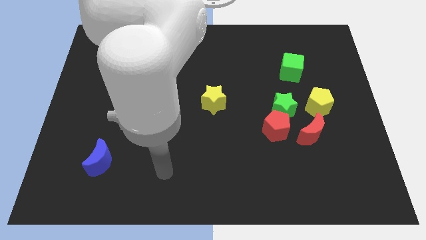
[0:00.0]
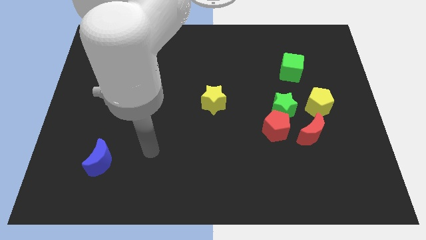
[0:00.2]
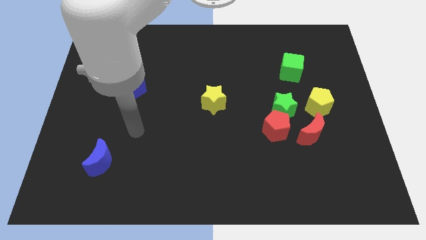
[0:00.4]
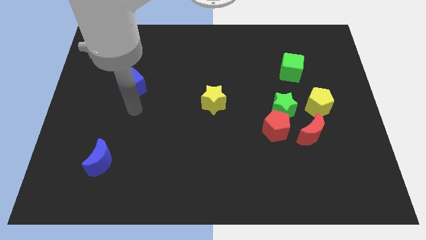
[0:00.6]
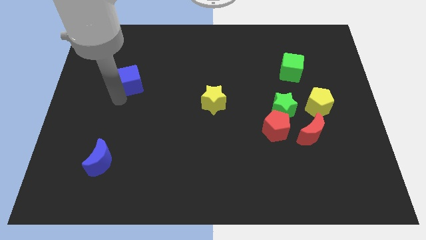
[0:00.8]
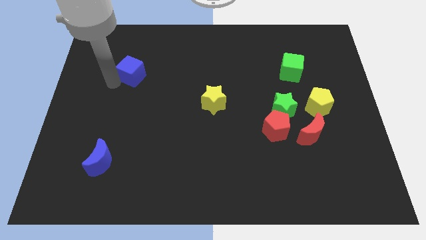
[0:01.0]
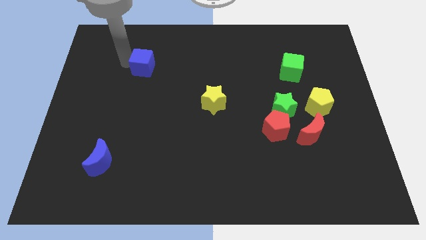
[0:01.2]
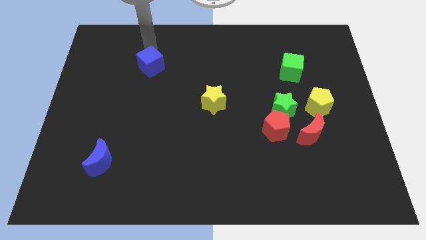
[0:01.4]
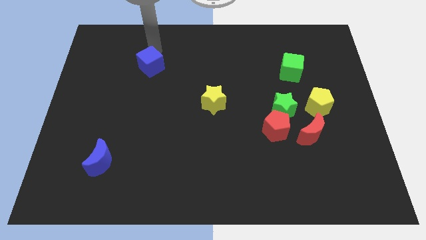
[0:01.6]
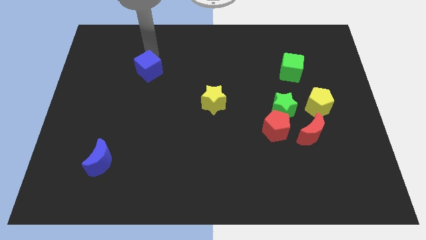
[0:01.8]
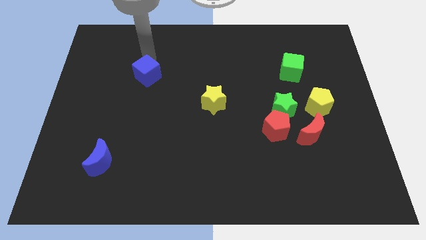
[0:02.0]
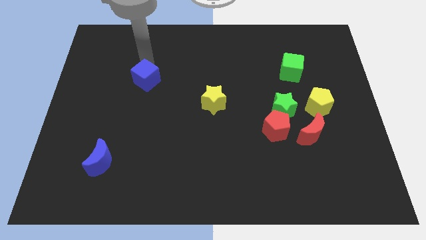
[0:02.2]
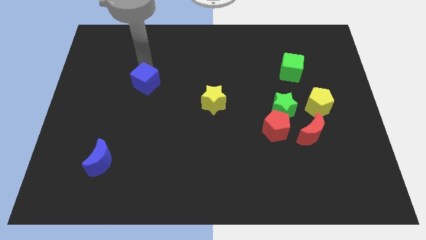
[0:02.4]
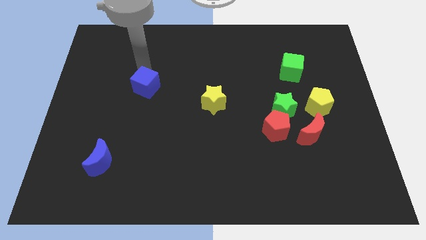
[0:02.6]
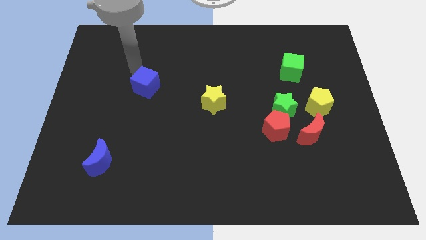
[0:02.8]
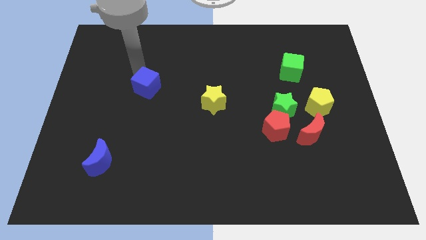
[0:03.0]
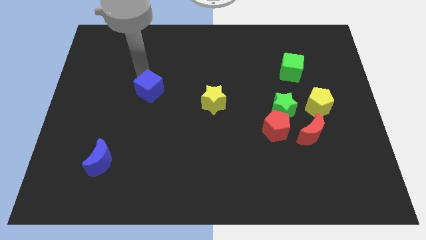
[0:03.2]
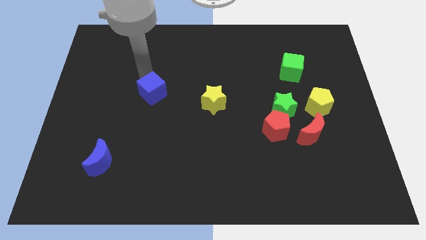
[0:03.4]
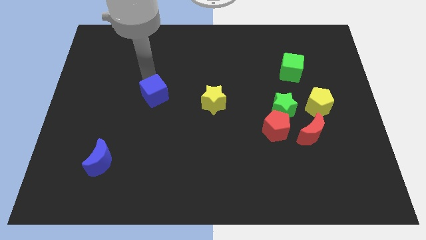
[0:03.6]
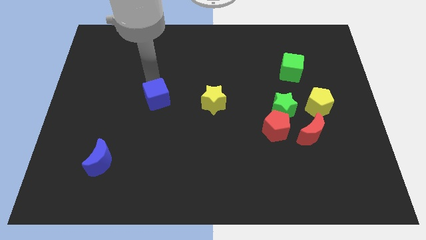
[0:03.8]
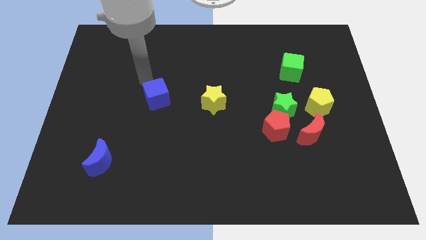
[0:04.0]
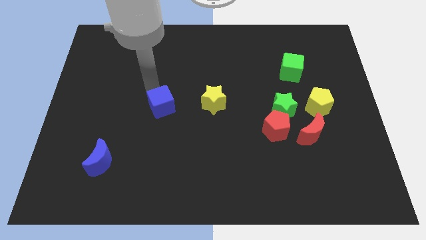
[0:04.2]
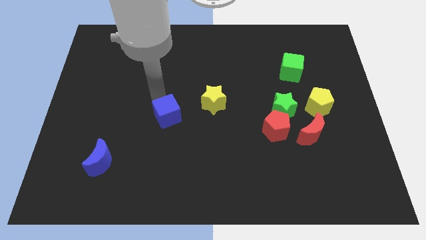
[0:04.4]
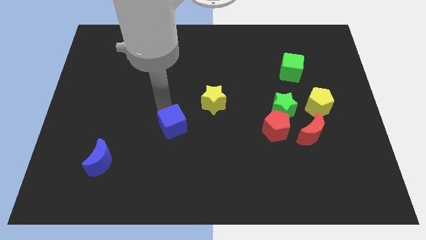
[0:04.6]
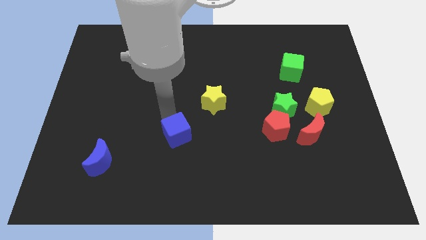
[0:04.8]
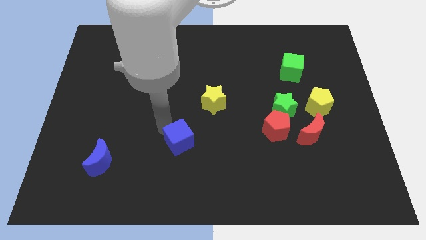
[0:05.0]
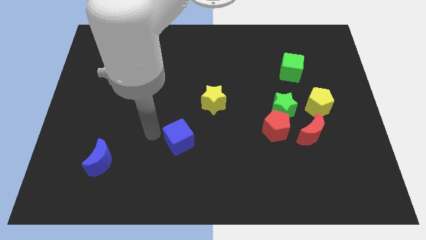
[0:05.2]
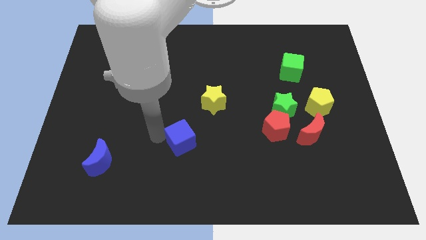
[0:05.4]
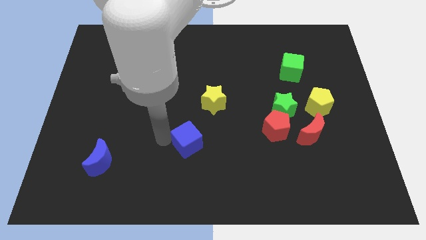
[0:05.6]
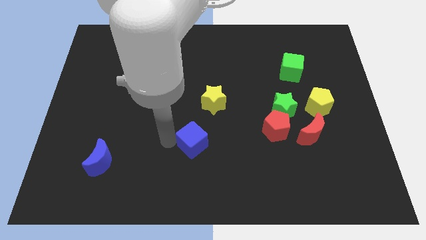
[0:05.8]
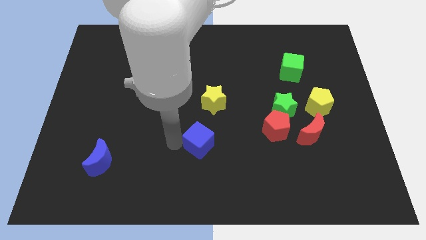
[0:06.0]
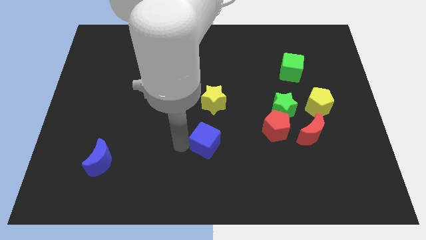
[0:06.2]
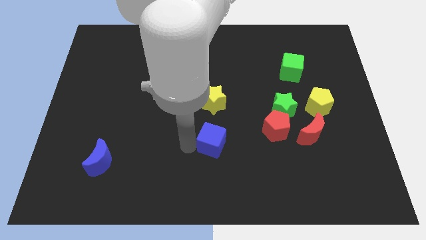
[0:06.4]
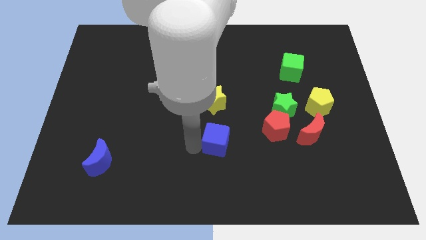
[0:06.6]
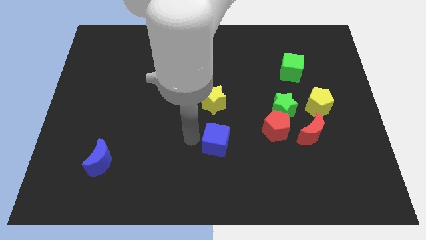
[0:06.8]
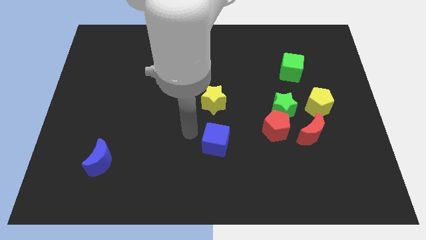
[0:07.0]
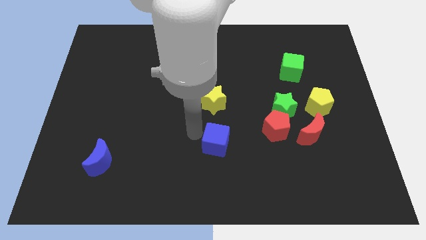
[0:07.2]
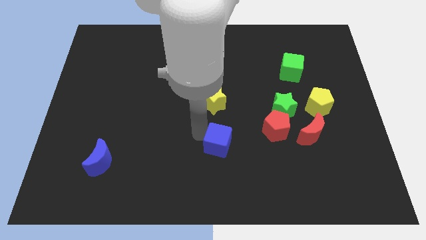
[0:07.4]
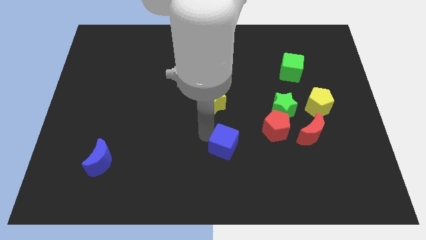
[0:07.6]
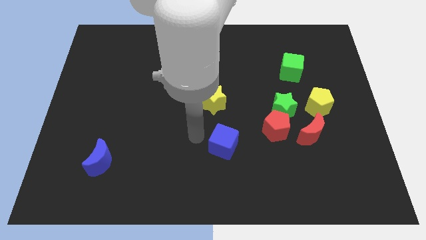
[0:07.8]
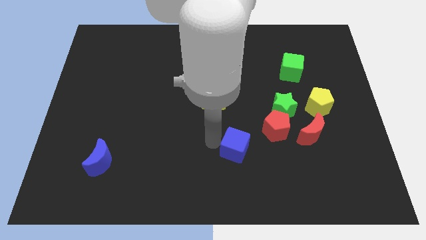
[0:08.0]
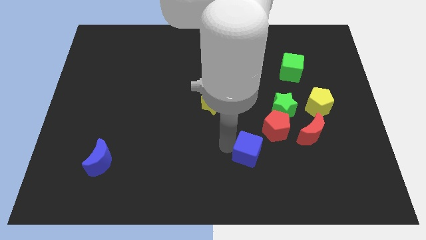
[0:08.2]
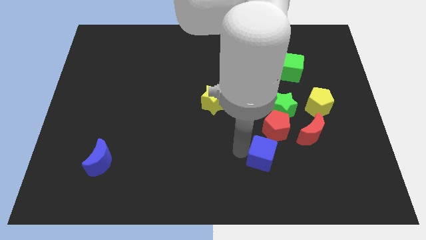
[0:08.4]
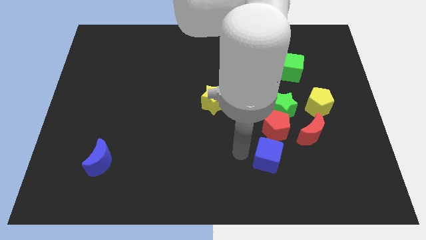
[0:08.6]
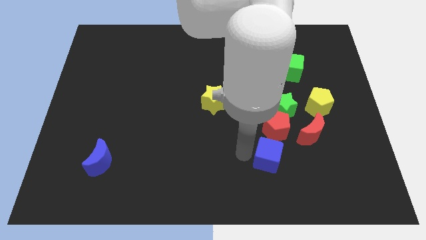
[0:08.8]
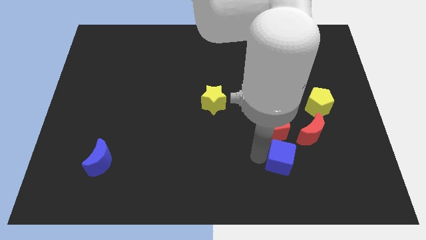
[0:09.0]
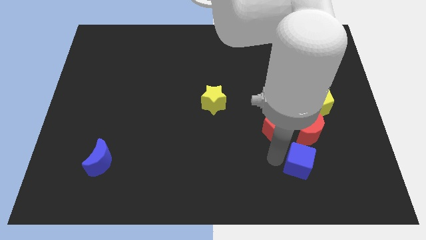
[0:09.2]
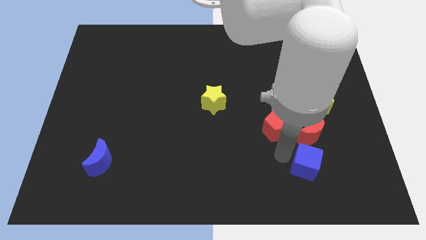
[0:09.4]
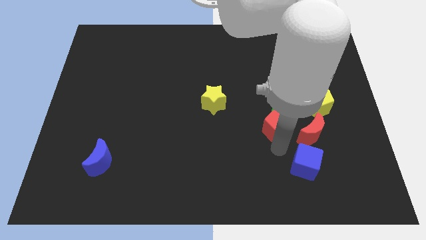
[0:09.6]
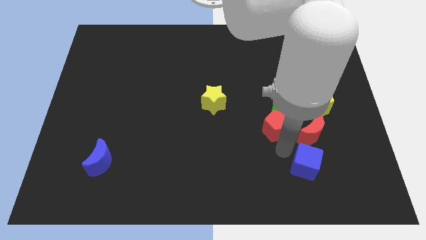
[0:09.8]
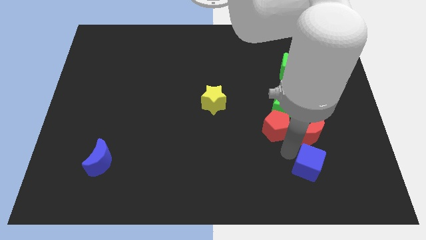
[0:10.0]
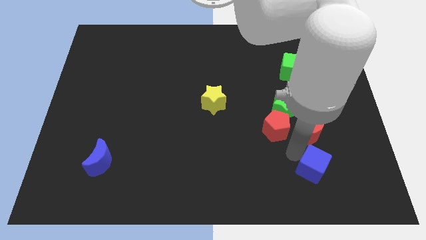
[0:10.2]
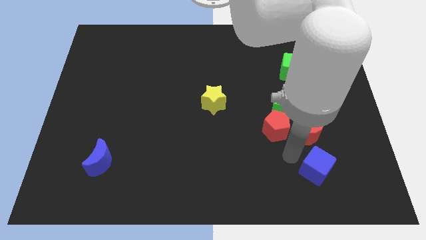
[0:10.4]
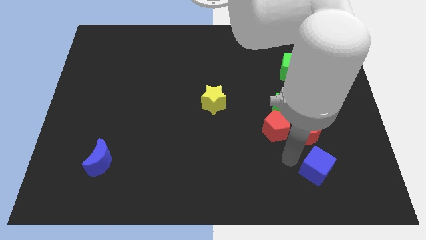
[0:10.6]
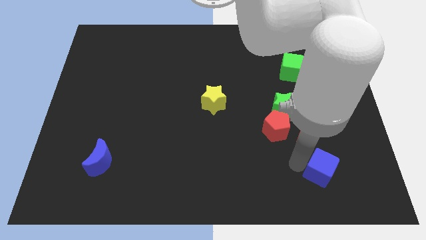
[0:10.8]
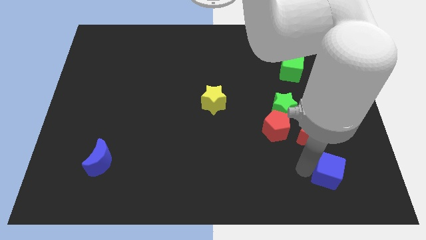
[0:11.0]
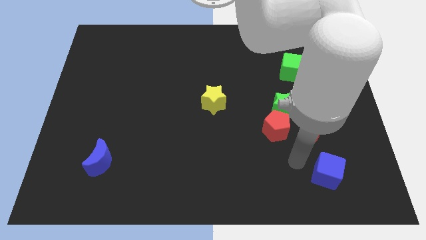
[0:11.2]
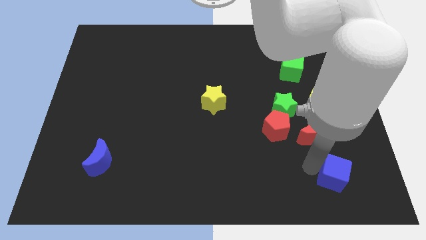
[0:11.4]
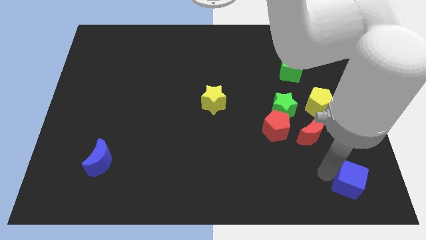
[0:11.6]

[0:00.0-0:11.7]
put the blue cube to the bottom right

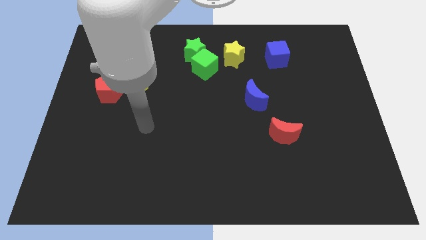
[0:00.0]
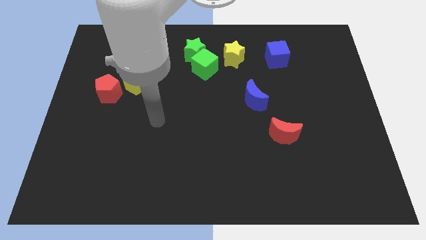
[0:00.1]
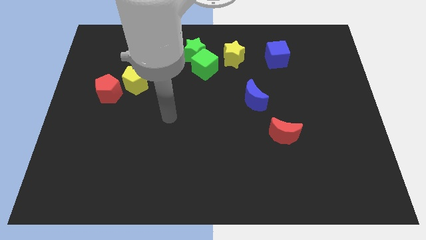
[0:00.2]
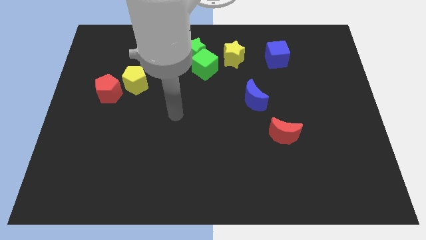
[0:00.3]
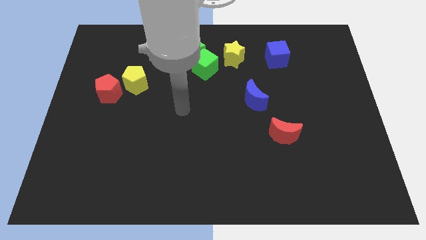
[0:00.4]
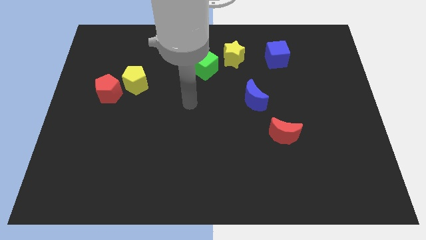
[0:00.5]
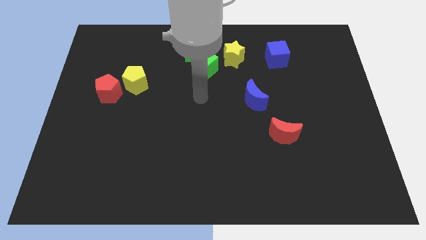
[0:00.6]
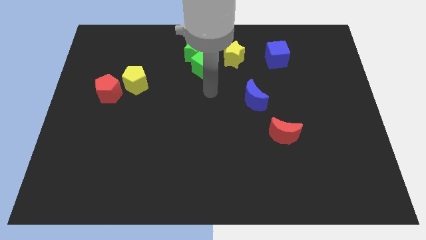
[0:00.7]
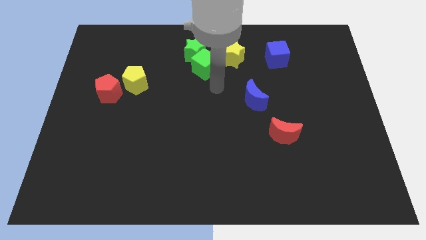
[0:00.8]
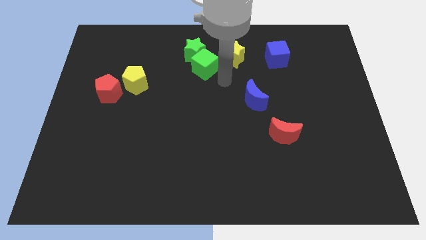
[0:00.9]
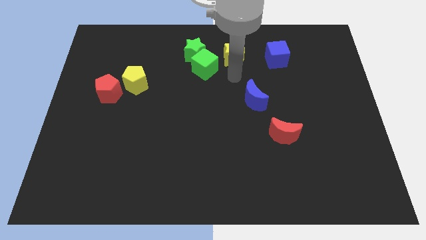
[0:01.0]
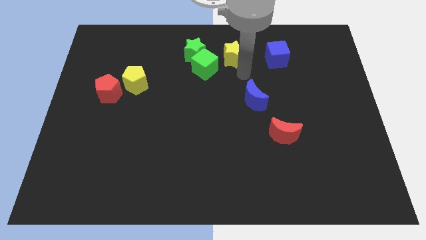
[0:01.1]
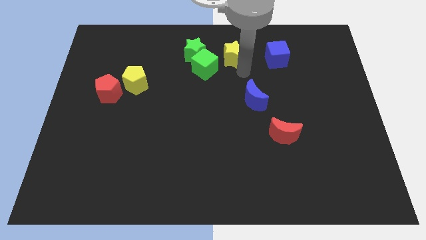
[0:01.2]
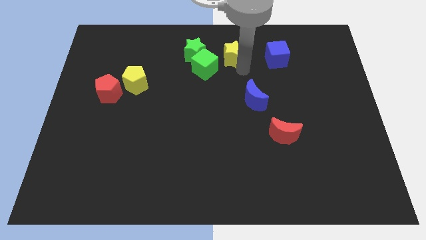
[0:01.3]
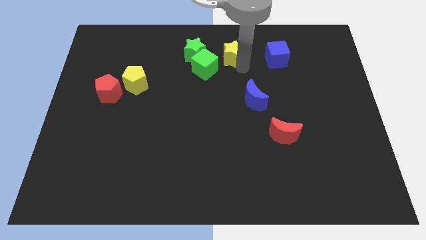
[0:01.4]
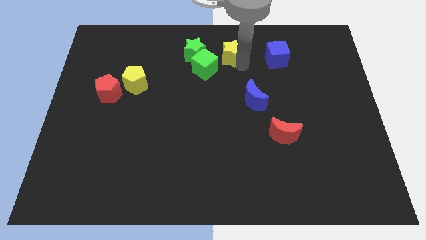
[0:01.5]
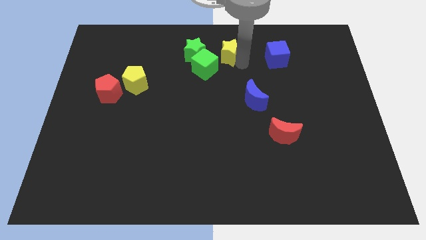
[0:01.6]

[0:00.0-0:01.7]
move the yellow star to the top
